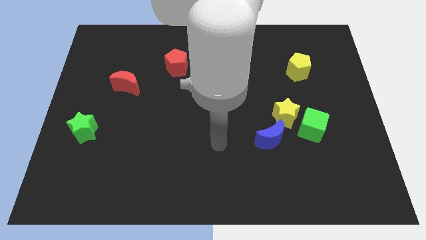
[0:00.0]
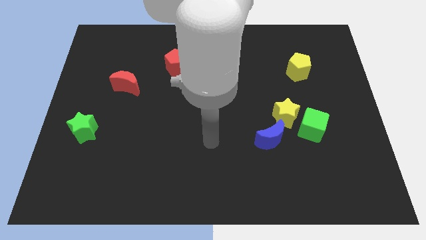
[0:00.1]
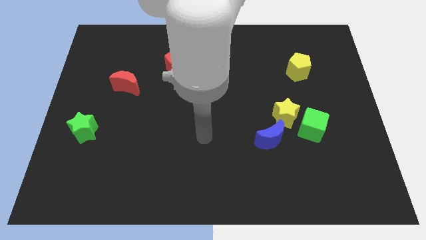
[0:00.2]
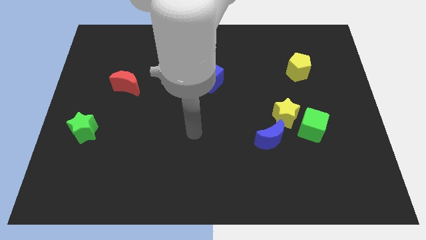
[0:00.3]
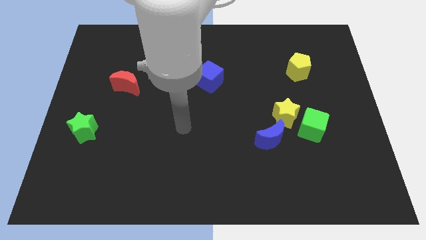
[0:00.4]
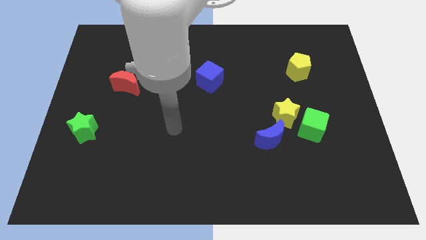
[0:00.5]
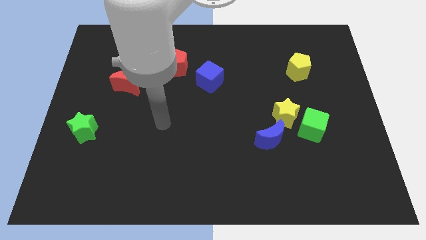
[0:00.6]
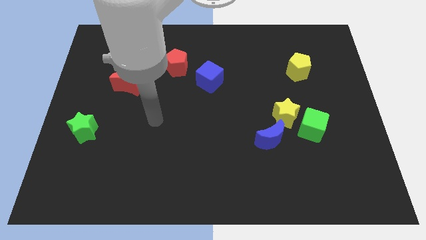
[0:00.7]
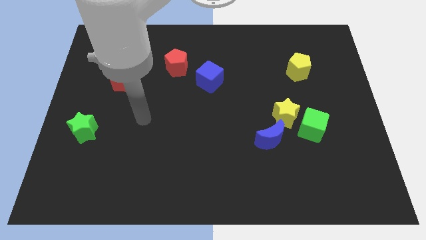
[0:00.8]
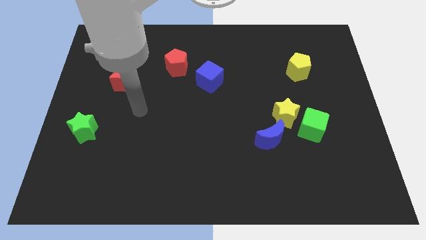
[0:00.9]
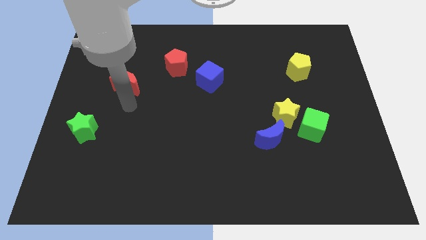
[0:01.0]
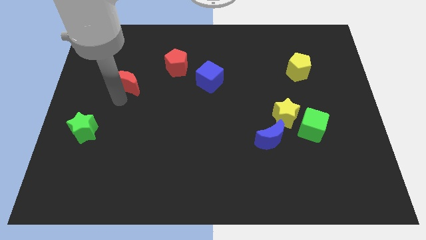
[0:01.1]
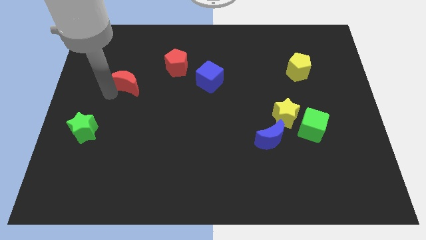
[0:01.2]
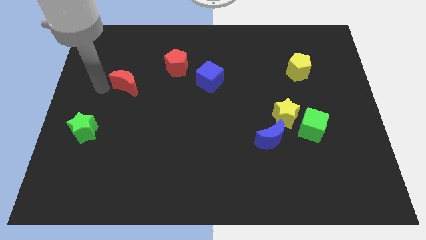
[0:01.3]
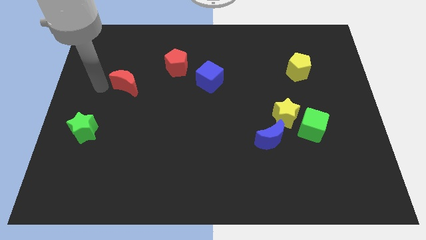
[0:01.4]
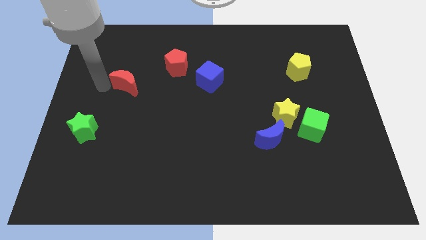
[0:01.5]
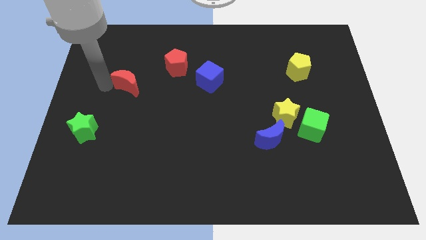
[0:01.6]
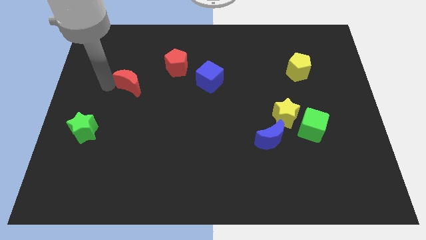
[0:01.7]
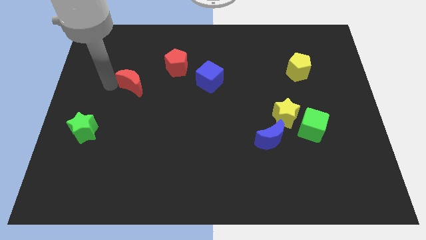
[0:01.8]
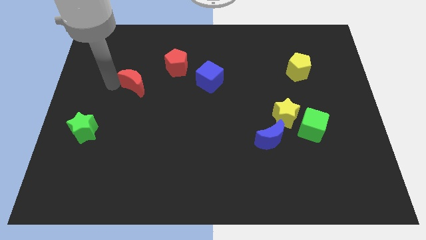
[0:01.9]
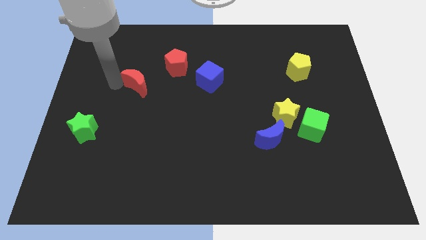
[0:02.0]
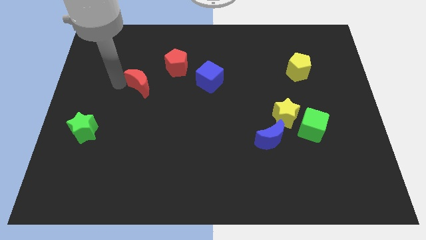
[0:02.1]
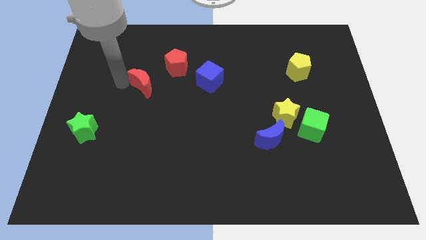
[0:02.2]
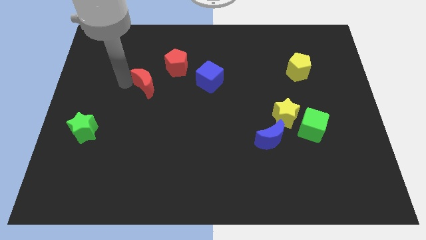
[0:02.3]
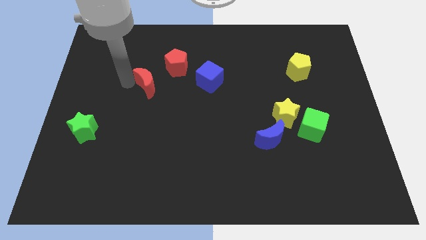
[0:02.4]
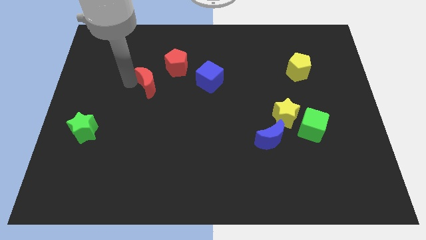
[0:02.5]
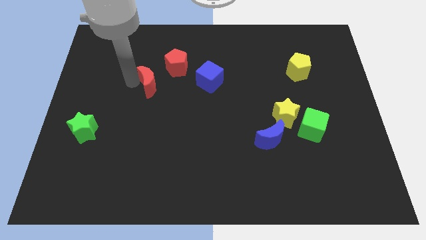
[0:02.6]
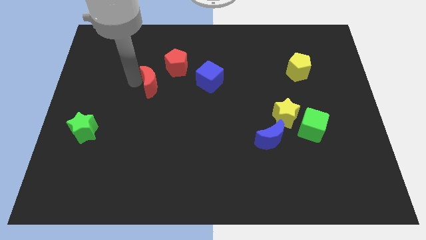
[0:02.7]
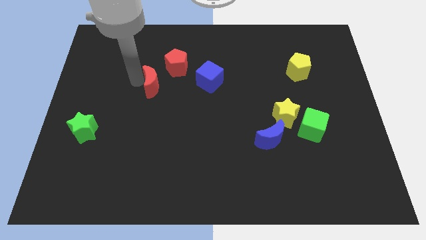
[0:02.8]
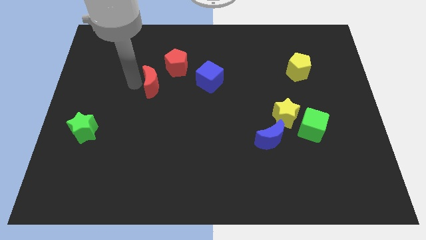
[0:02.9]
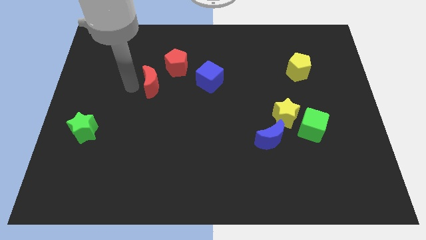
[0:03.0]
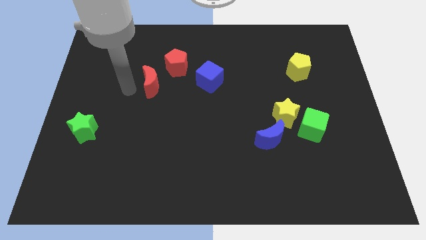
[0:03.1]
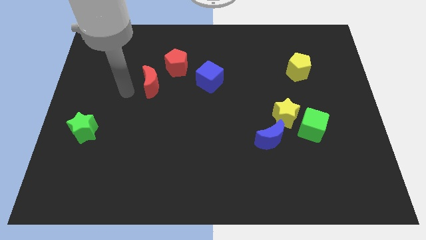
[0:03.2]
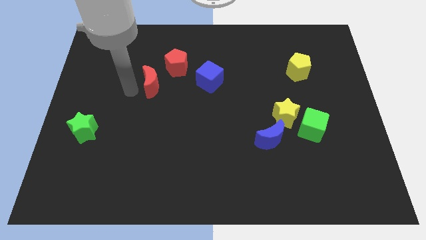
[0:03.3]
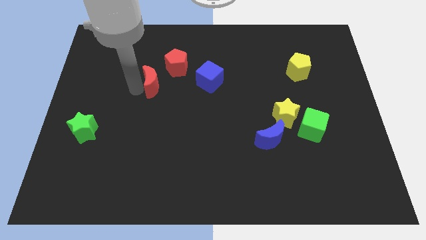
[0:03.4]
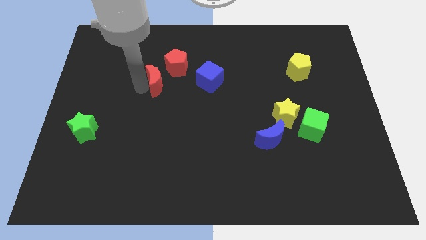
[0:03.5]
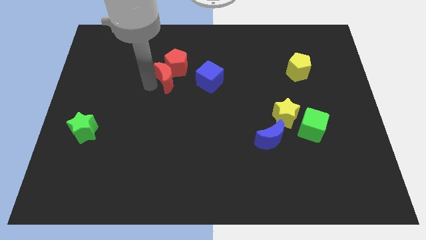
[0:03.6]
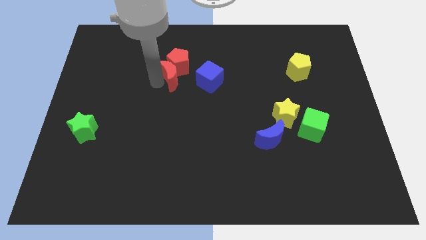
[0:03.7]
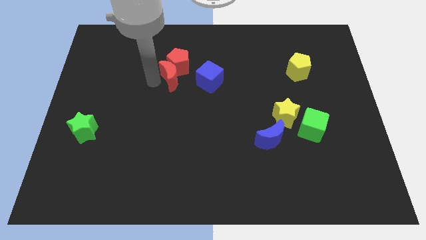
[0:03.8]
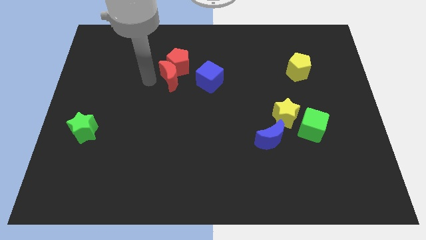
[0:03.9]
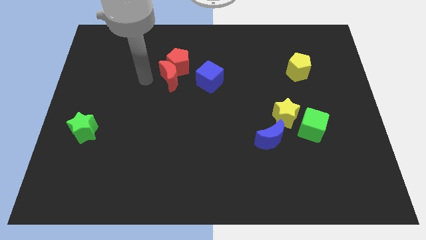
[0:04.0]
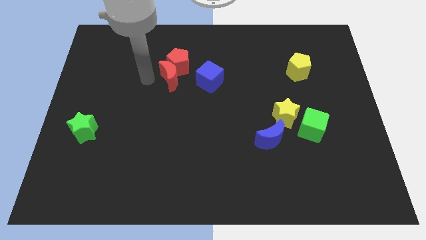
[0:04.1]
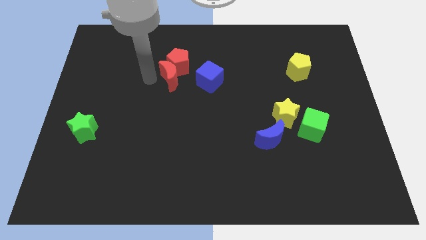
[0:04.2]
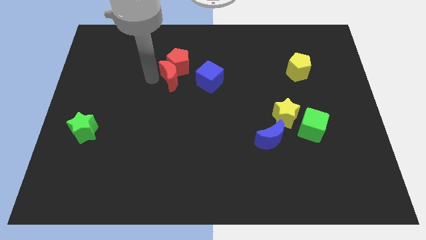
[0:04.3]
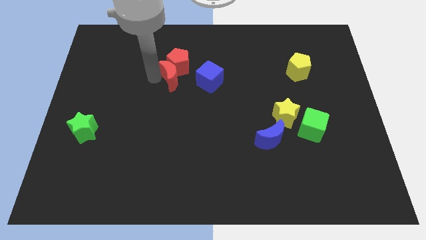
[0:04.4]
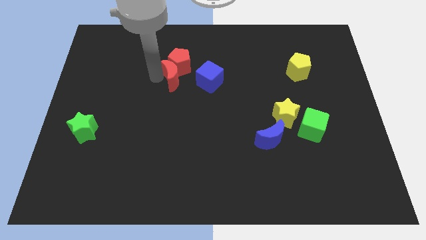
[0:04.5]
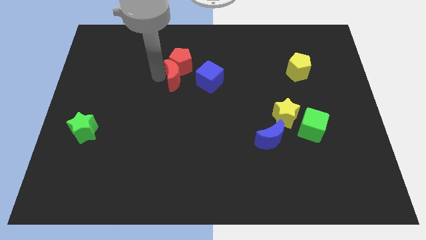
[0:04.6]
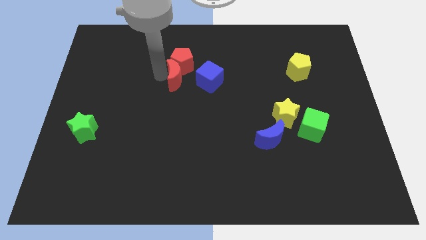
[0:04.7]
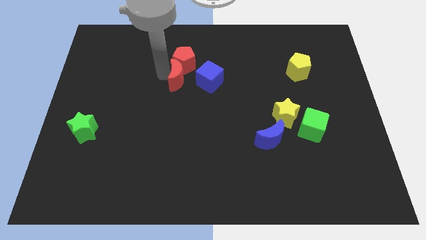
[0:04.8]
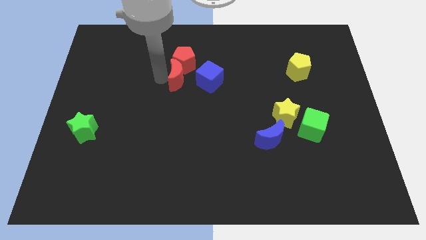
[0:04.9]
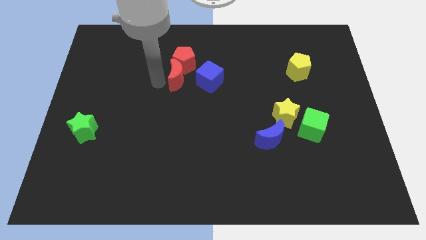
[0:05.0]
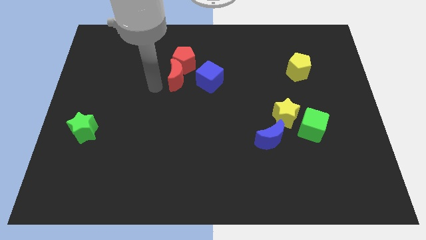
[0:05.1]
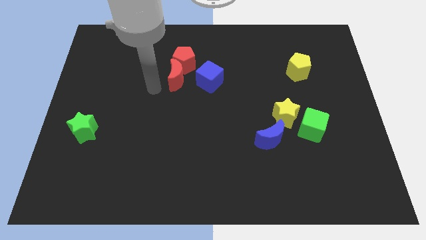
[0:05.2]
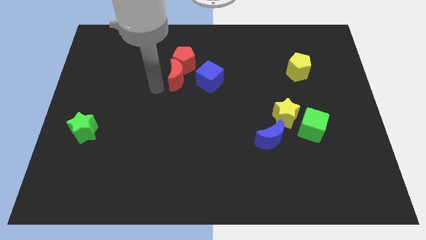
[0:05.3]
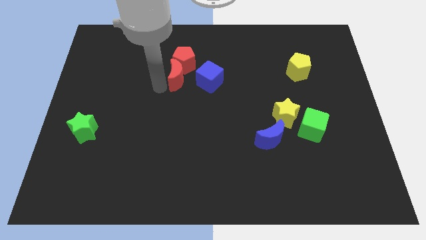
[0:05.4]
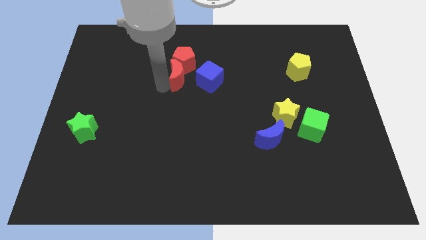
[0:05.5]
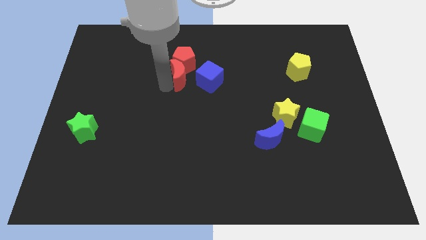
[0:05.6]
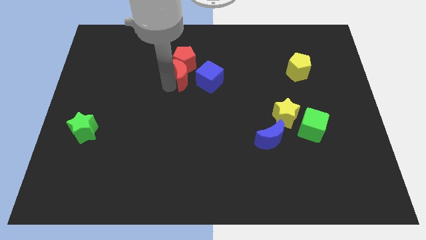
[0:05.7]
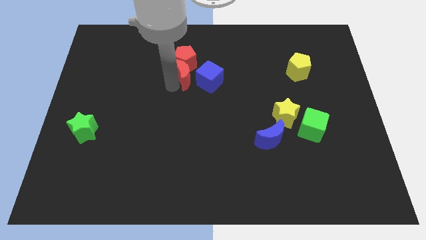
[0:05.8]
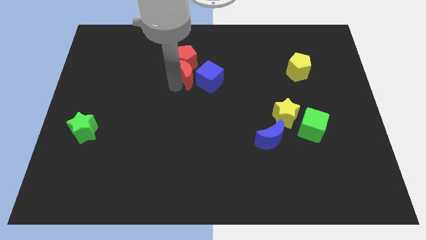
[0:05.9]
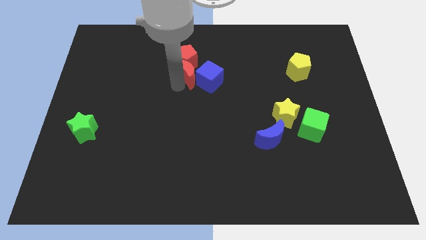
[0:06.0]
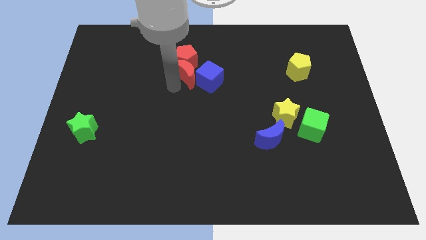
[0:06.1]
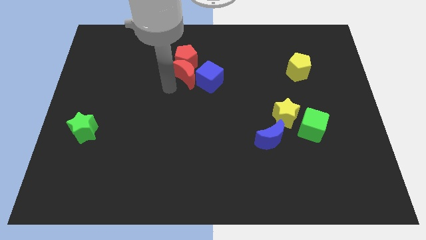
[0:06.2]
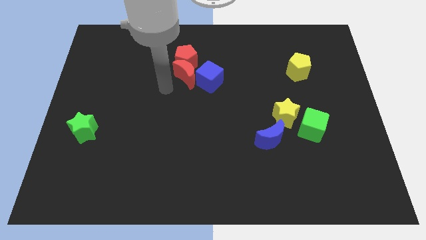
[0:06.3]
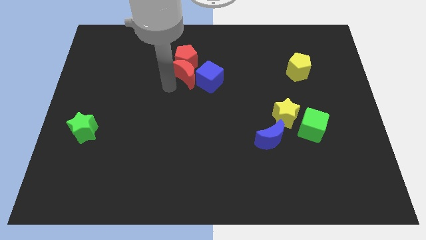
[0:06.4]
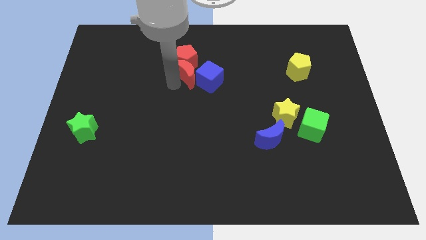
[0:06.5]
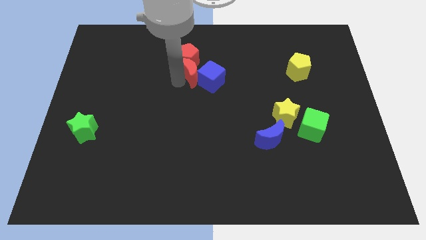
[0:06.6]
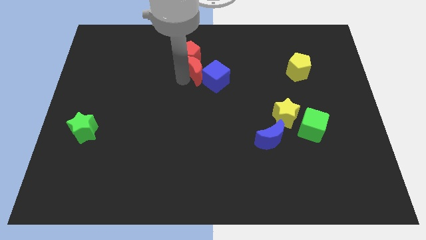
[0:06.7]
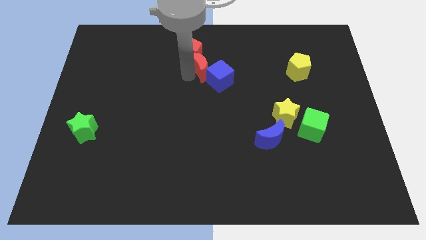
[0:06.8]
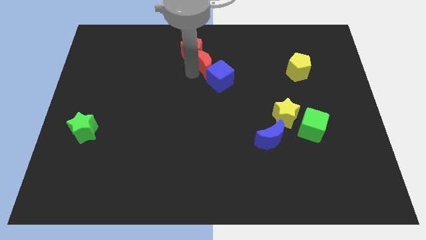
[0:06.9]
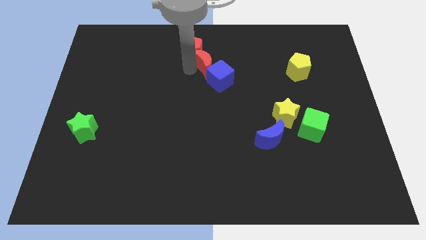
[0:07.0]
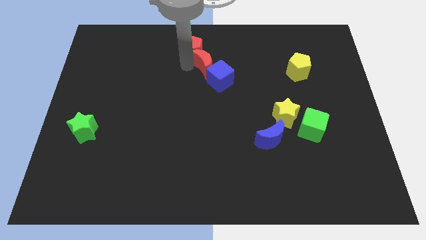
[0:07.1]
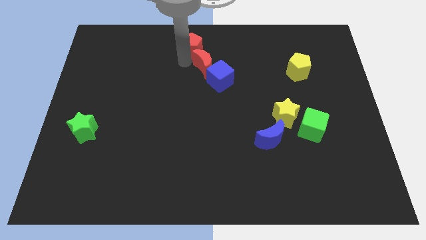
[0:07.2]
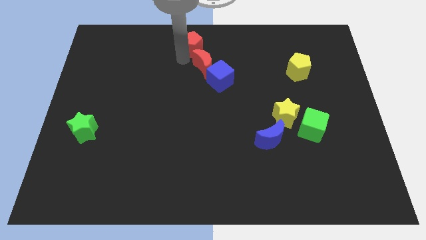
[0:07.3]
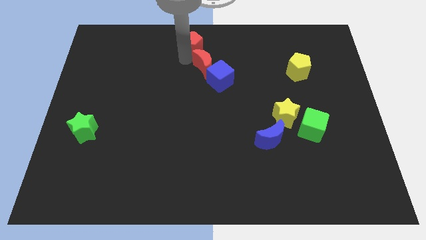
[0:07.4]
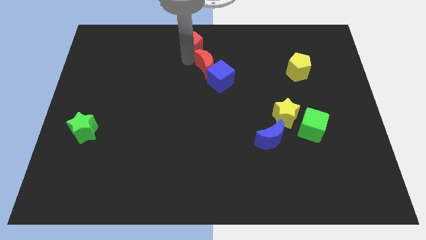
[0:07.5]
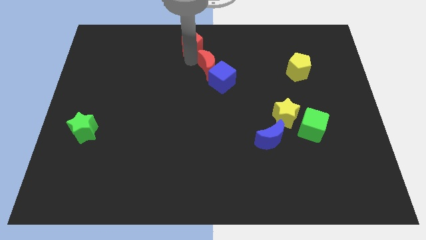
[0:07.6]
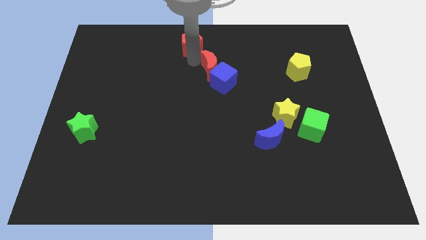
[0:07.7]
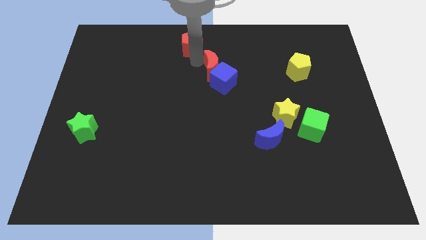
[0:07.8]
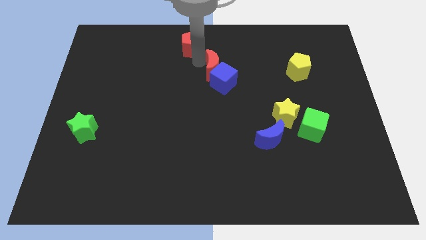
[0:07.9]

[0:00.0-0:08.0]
slide the red moon right
